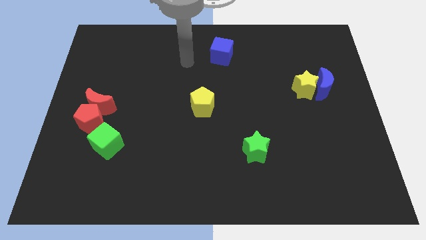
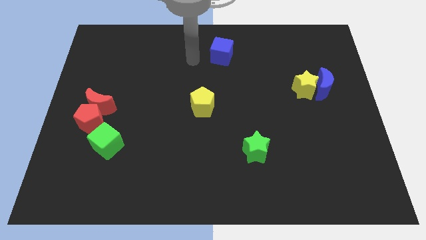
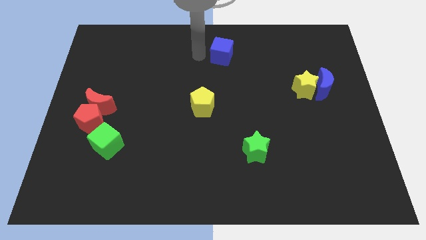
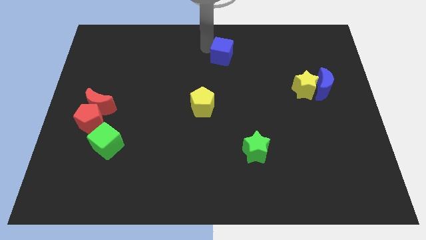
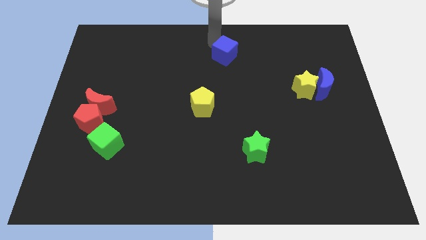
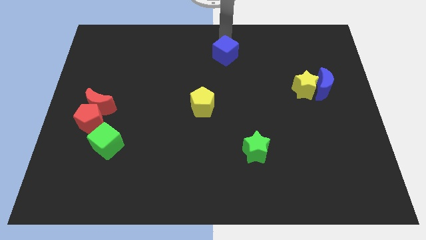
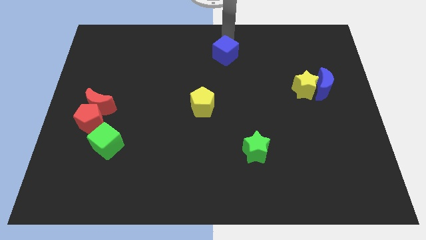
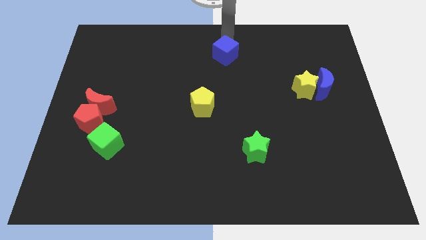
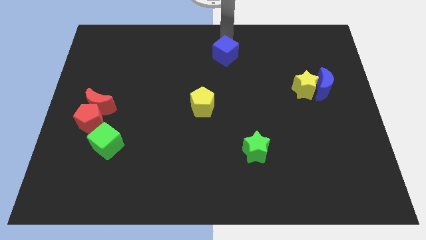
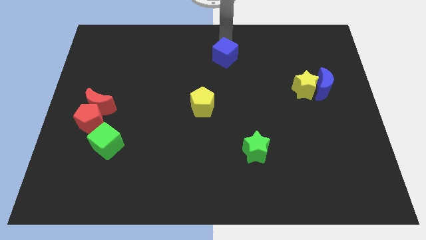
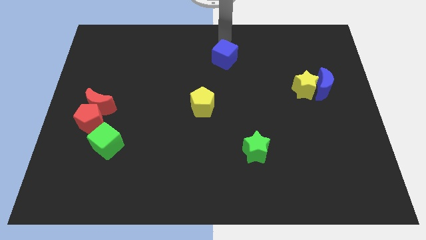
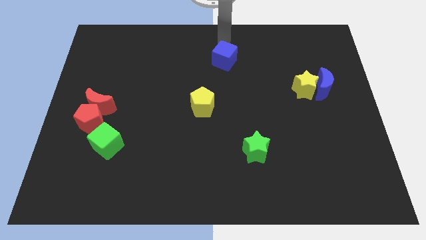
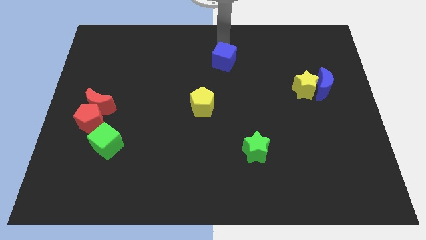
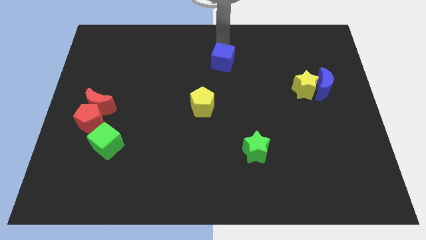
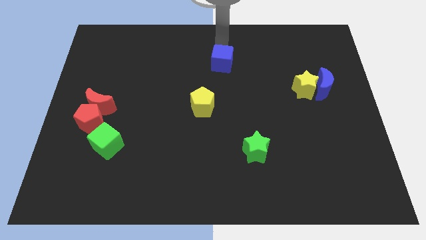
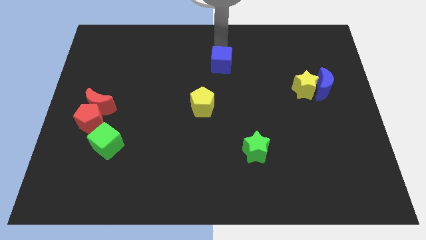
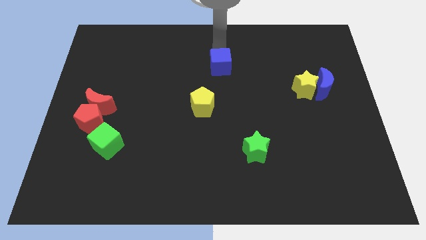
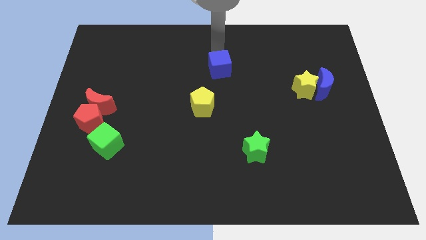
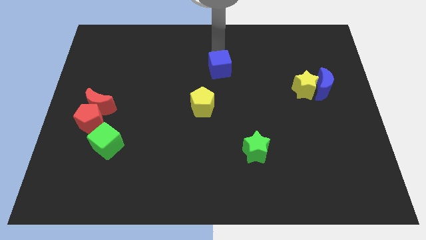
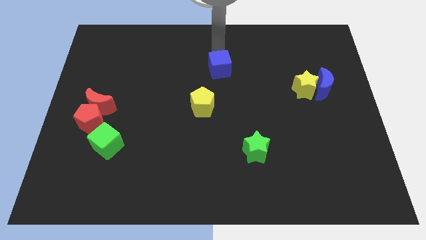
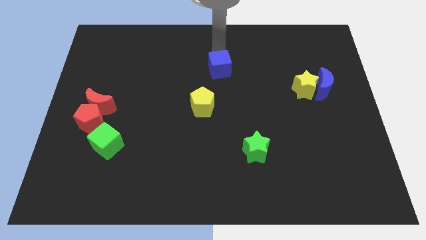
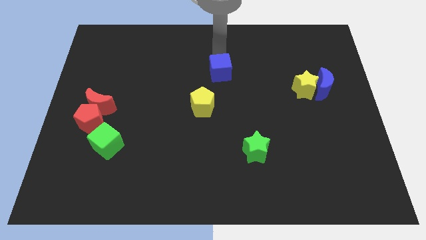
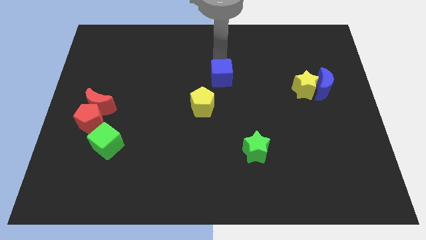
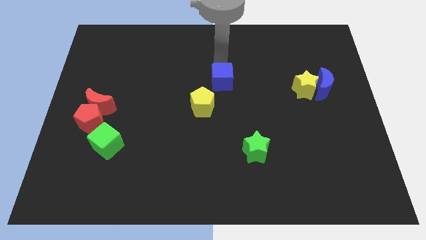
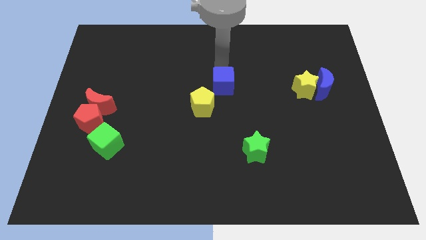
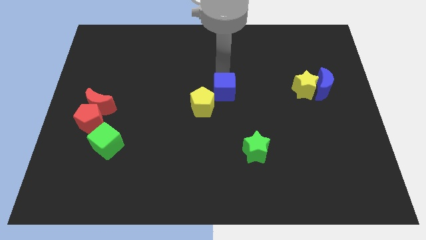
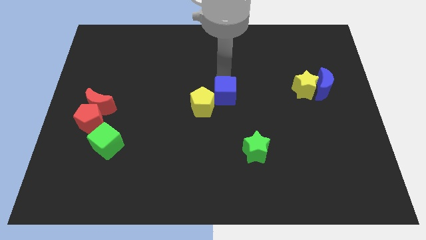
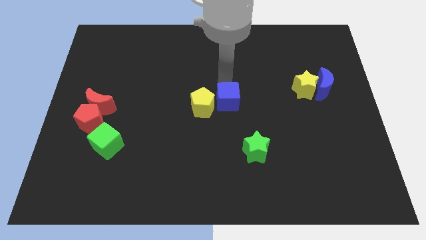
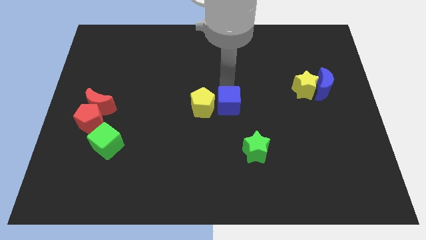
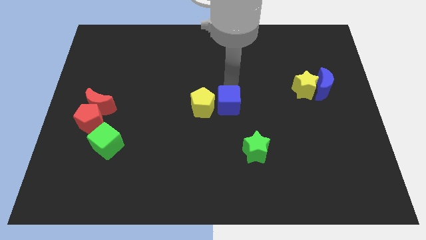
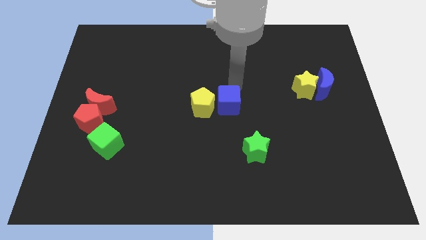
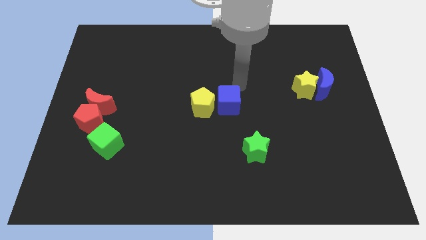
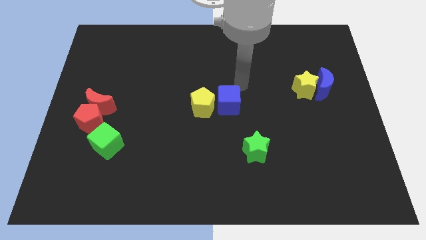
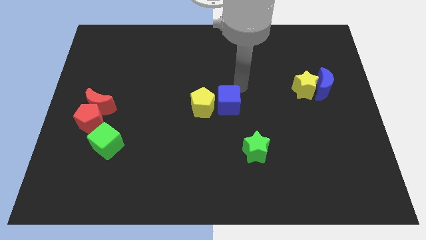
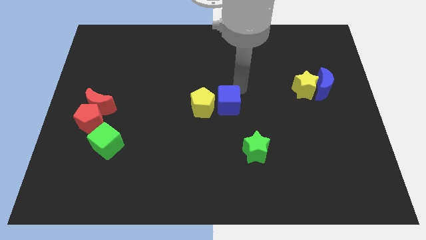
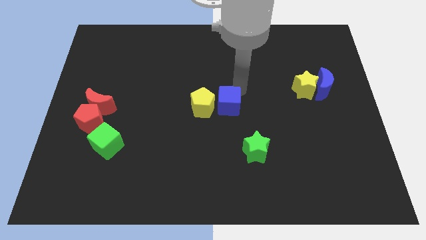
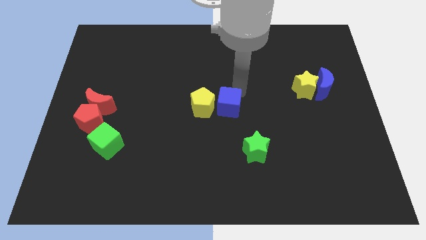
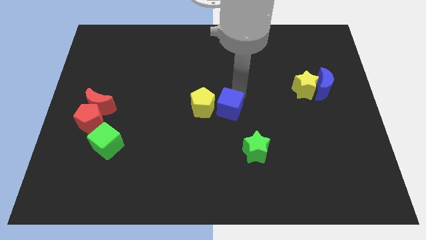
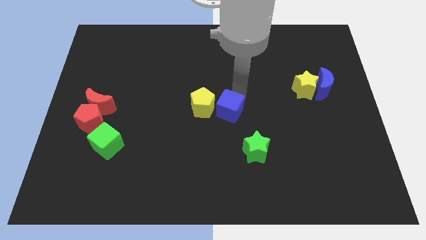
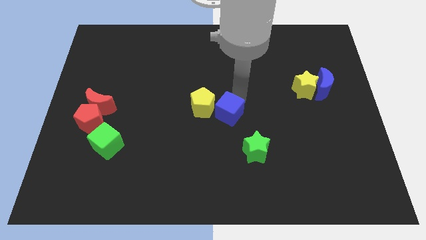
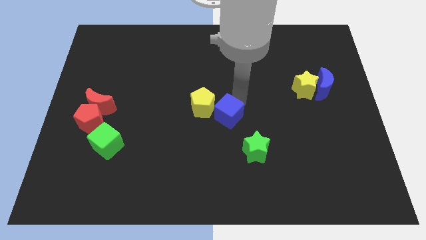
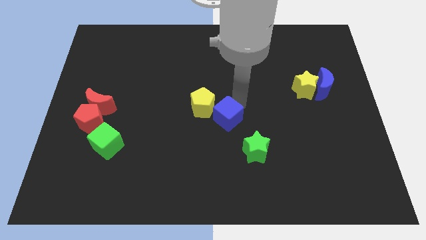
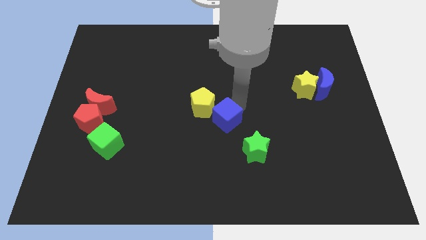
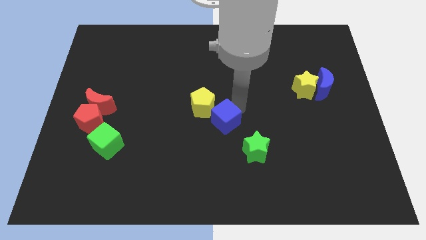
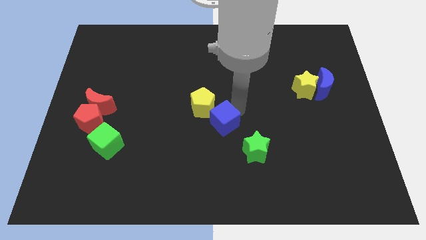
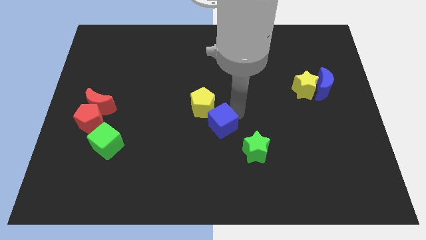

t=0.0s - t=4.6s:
slide the blue cube to the bottom of the yellow pentagon

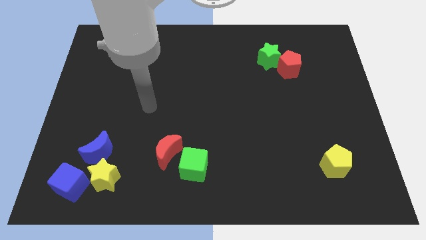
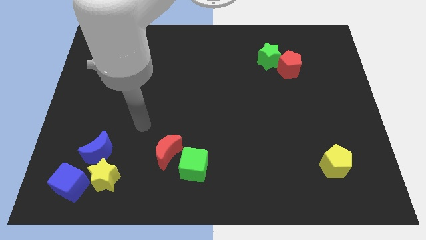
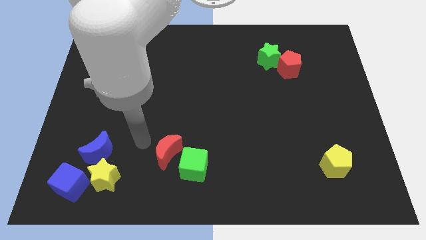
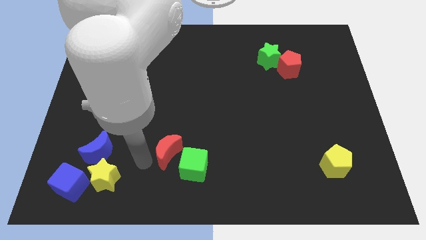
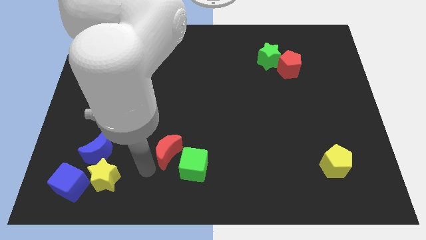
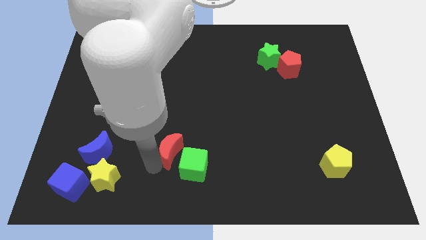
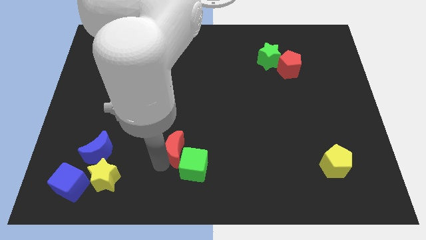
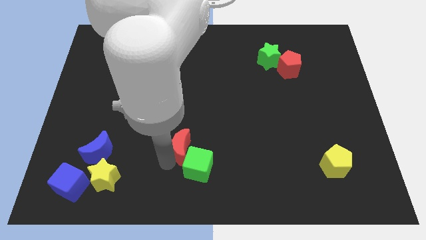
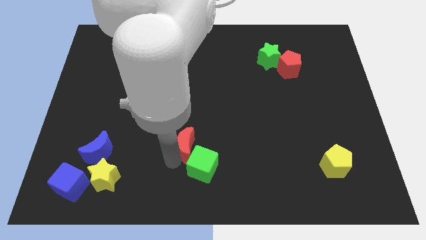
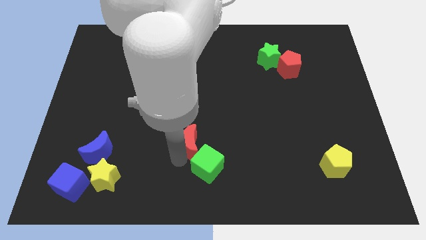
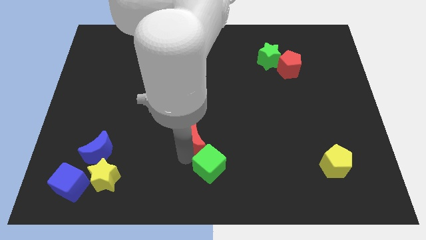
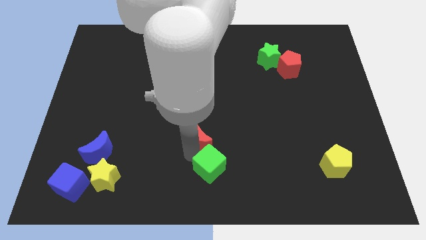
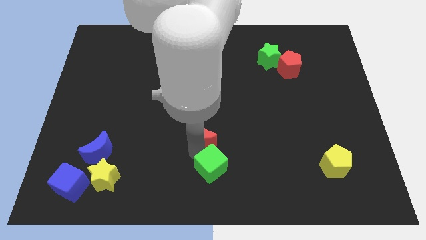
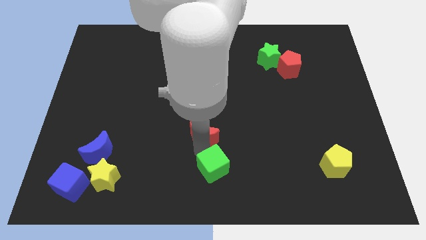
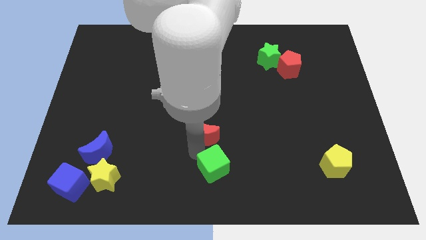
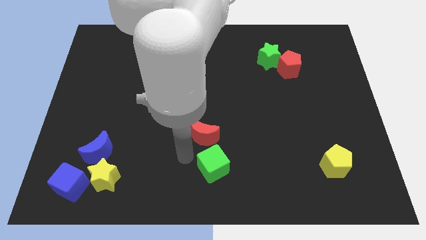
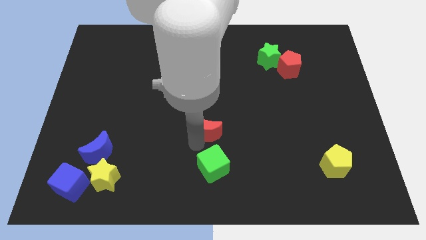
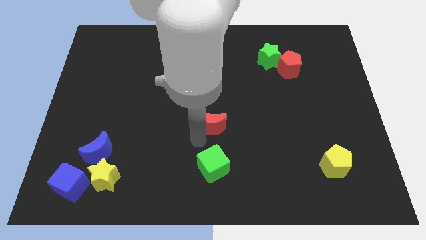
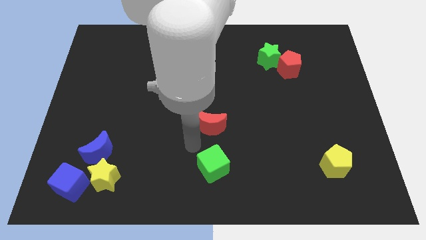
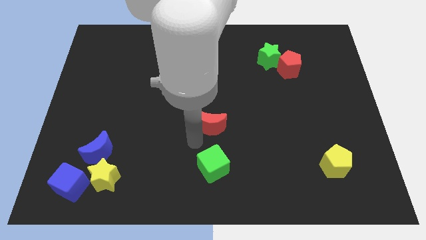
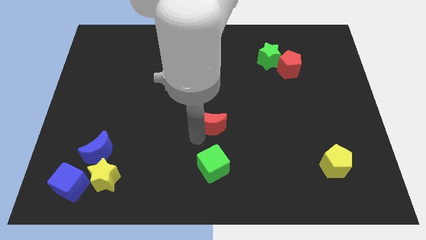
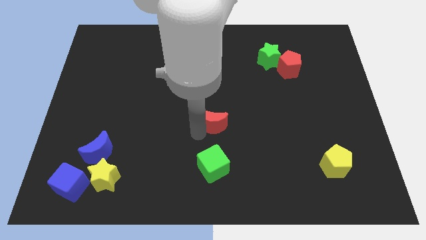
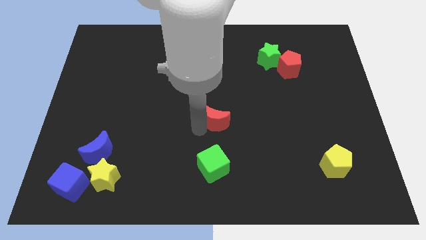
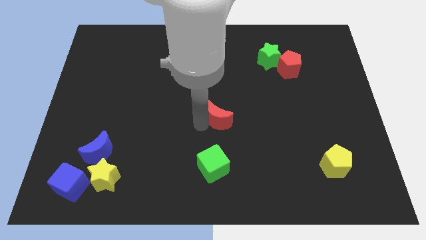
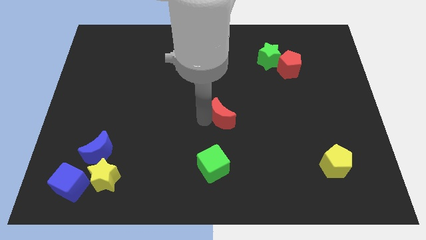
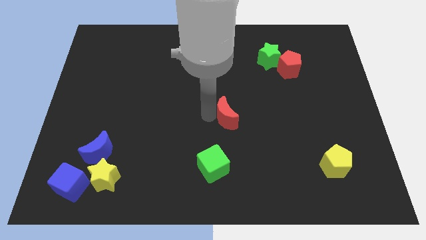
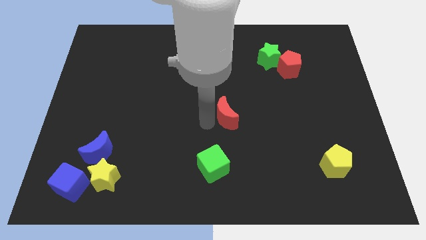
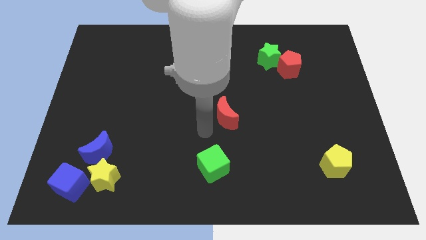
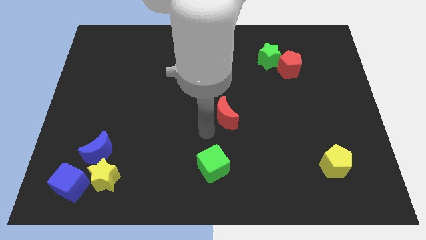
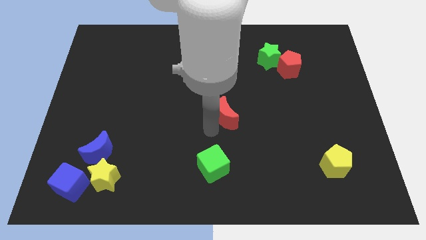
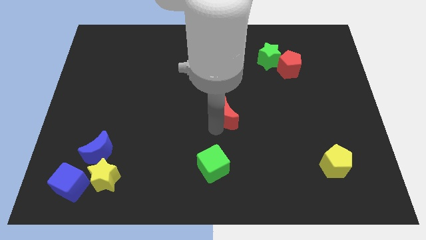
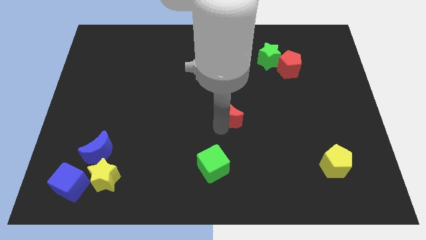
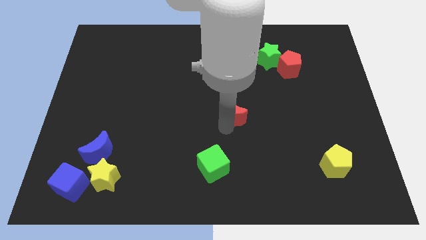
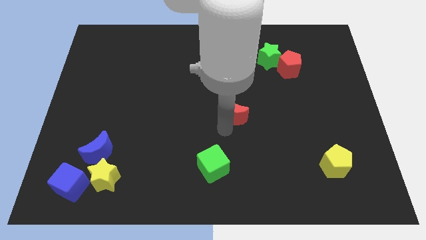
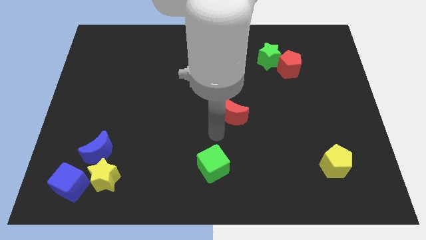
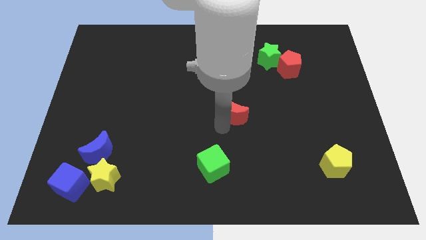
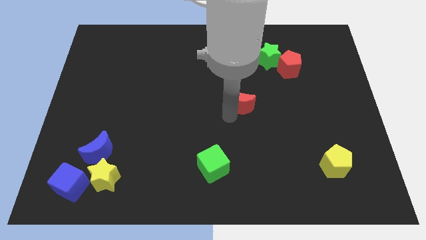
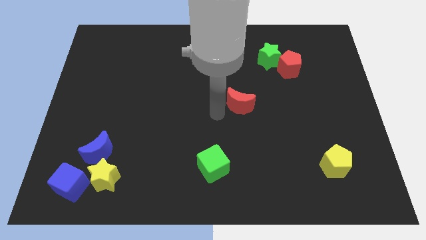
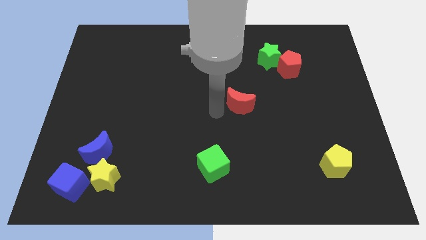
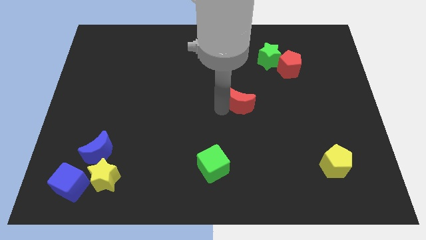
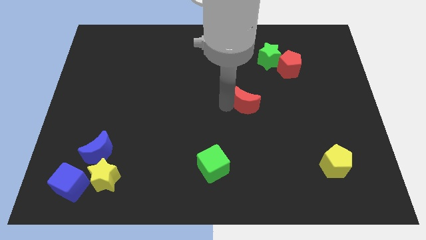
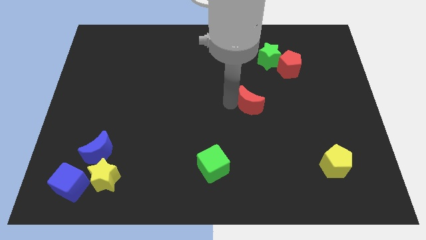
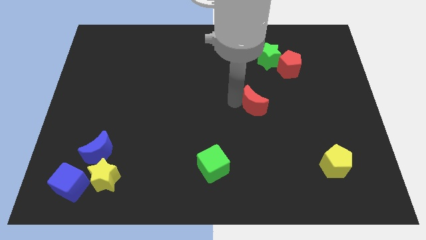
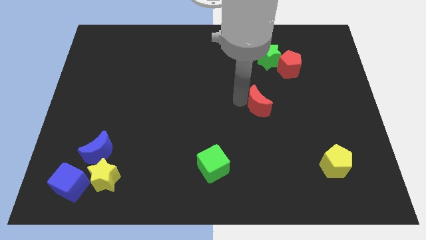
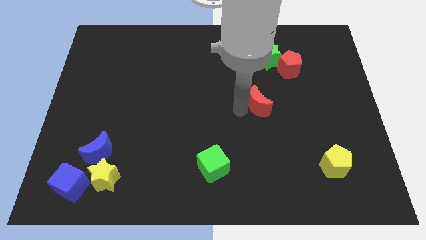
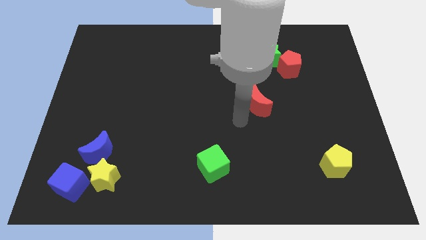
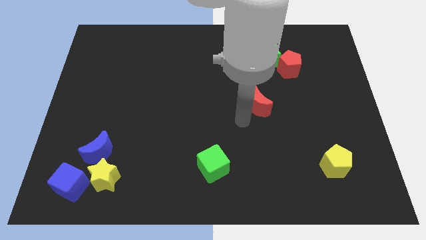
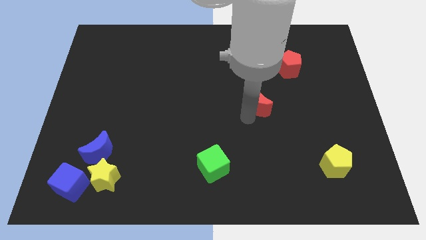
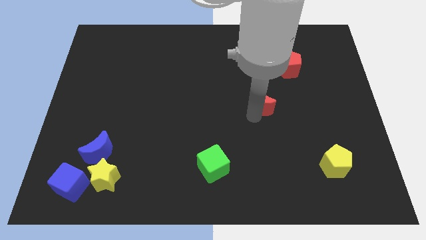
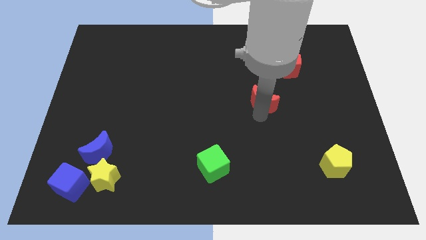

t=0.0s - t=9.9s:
put the red moon below the green star
